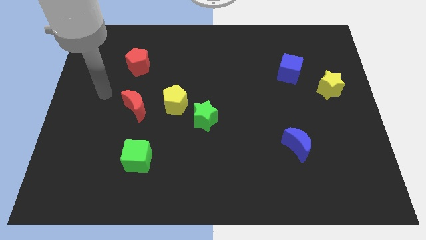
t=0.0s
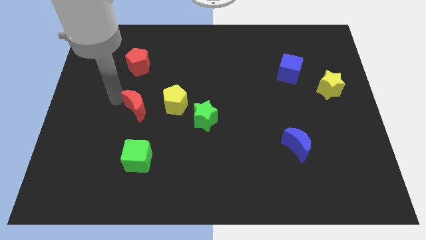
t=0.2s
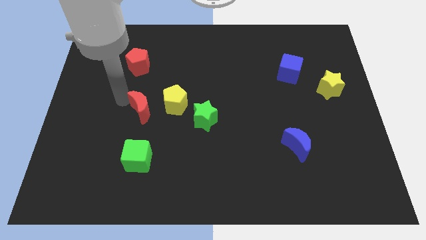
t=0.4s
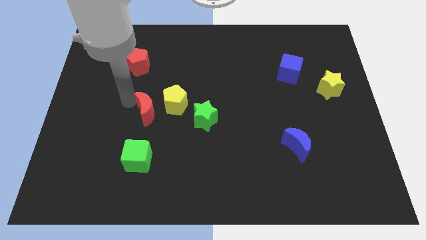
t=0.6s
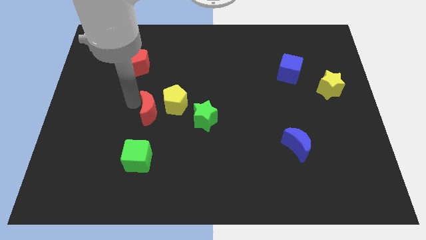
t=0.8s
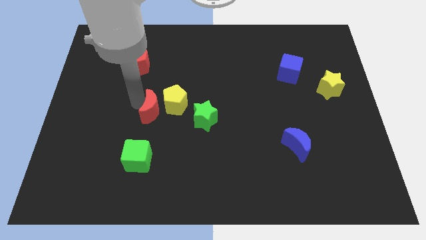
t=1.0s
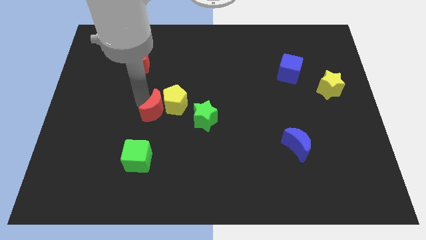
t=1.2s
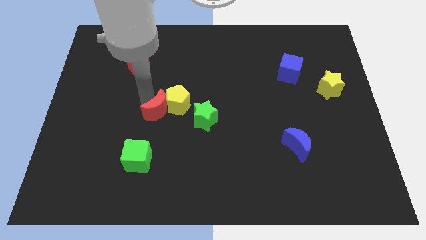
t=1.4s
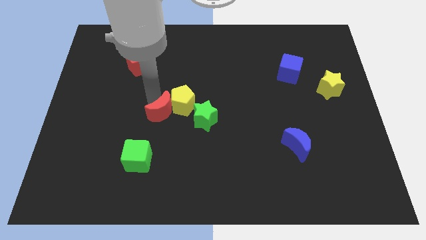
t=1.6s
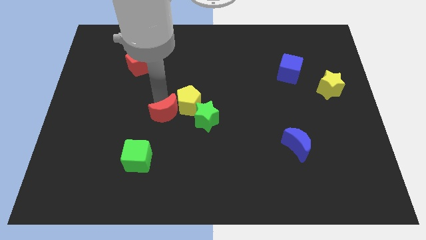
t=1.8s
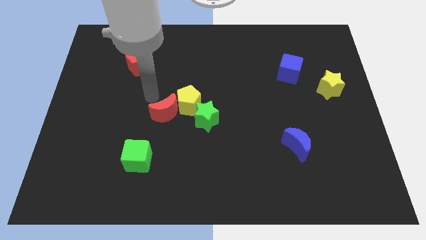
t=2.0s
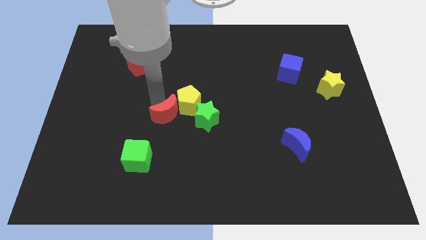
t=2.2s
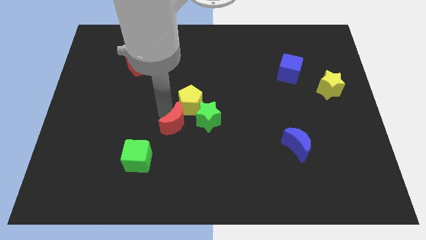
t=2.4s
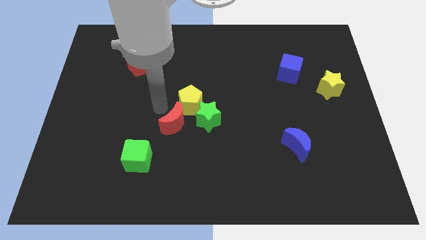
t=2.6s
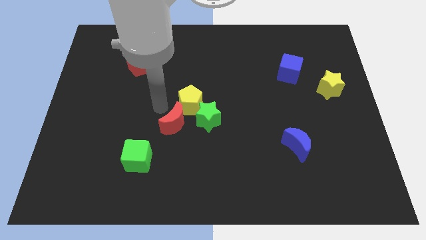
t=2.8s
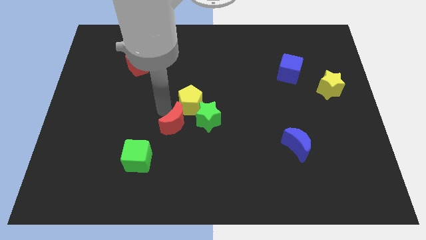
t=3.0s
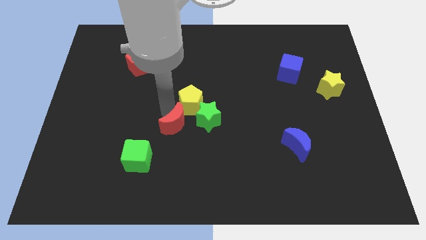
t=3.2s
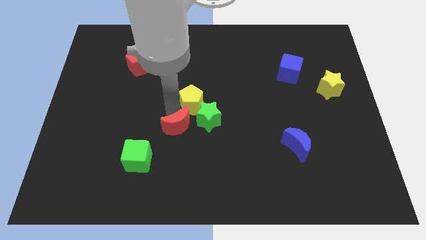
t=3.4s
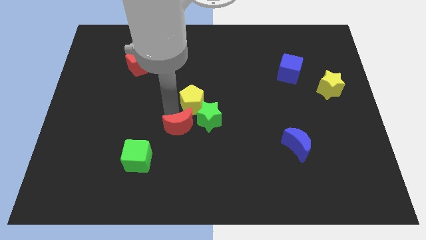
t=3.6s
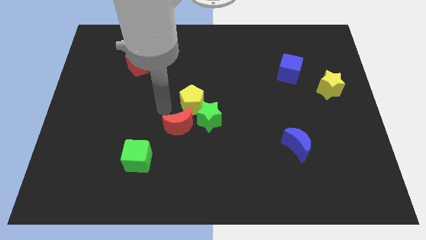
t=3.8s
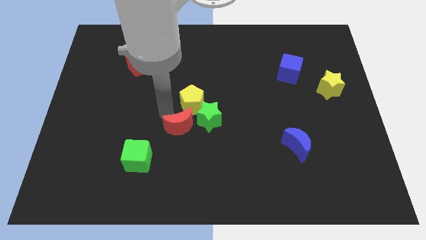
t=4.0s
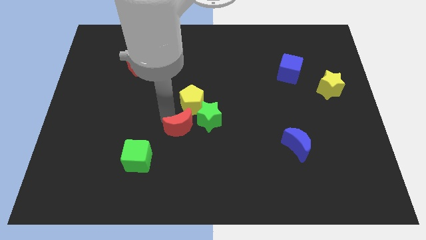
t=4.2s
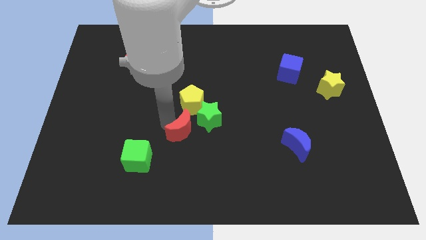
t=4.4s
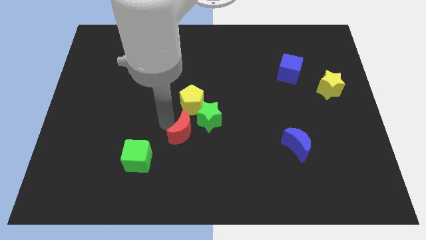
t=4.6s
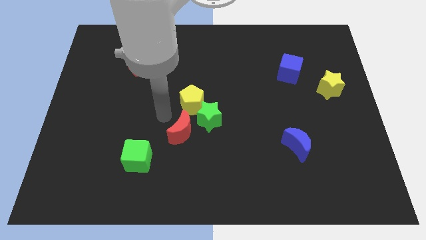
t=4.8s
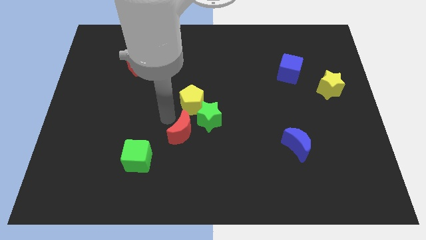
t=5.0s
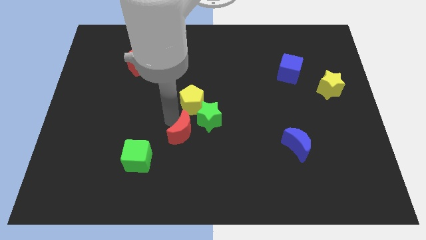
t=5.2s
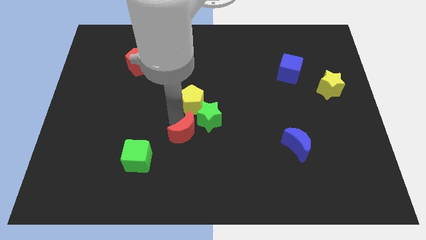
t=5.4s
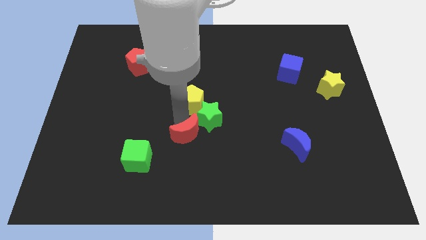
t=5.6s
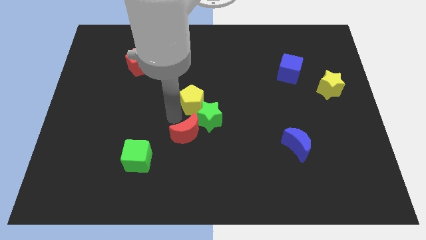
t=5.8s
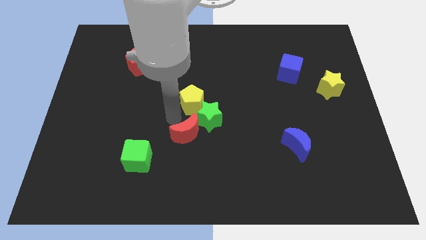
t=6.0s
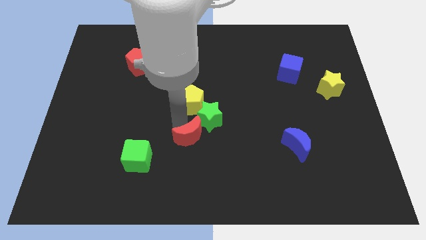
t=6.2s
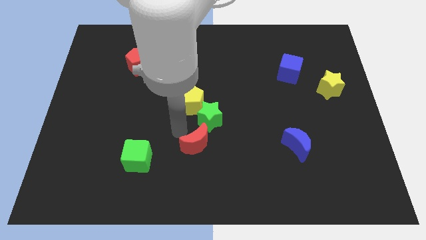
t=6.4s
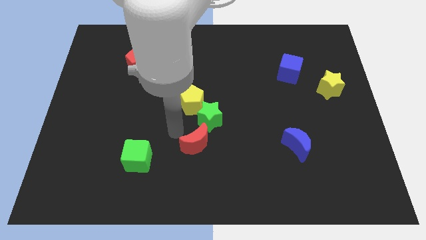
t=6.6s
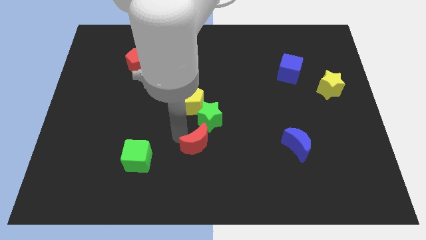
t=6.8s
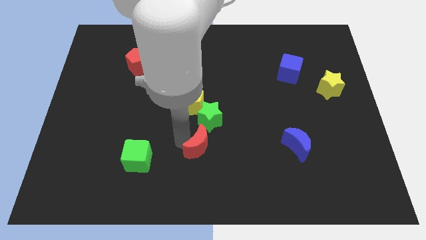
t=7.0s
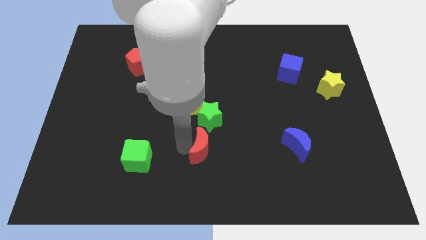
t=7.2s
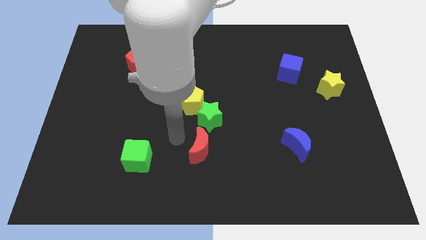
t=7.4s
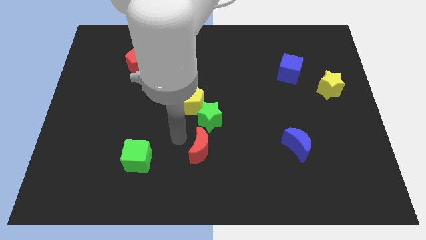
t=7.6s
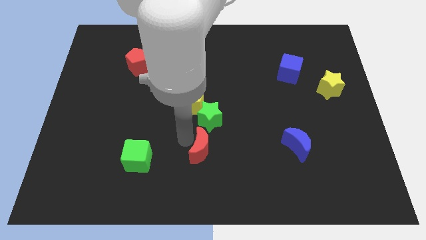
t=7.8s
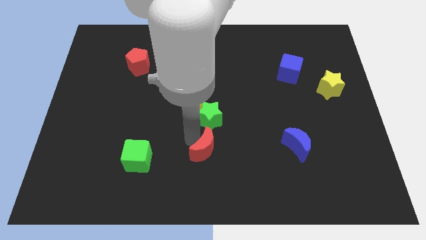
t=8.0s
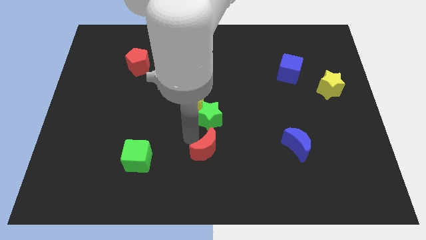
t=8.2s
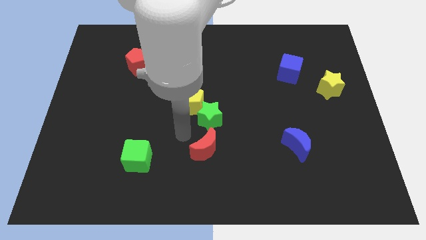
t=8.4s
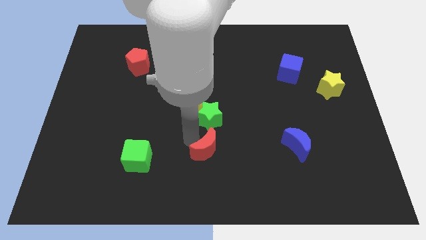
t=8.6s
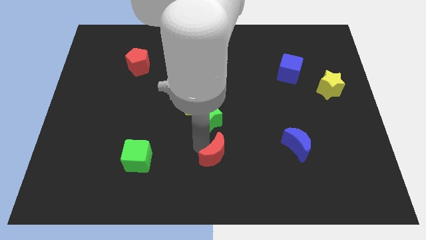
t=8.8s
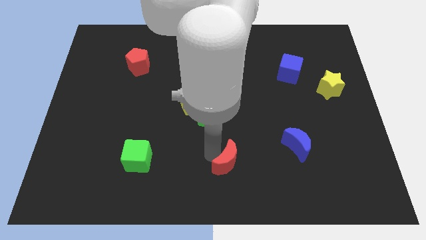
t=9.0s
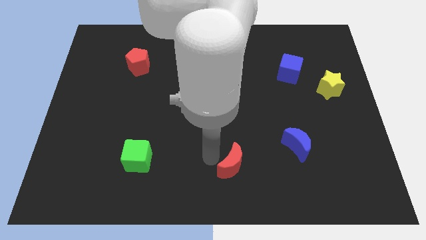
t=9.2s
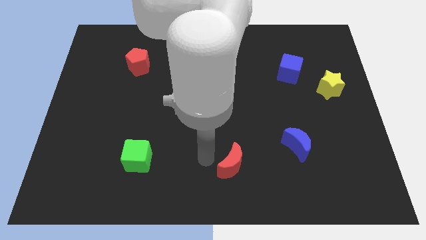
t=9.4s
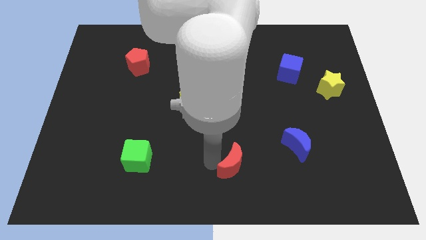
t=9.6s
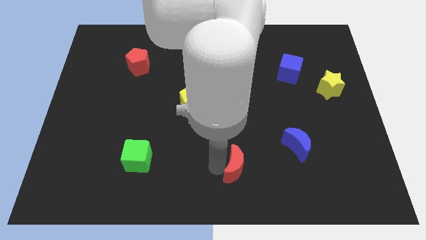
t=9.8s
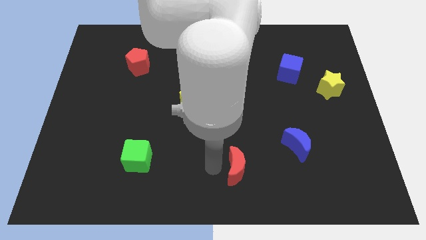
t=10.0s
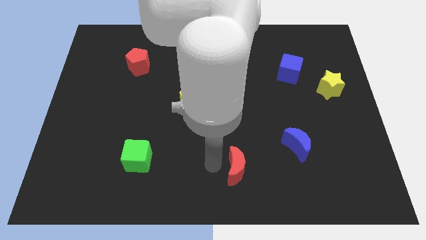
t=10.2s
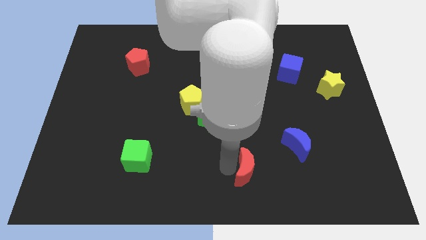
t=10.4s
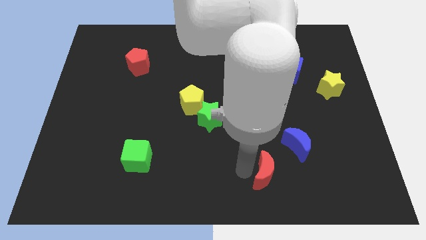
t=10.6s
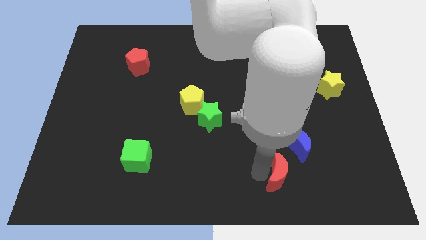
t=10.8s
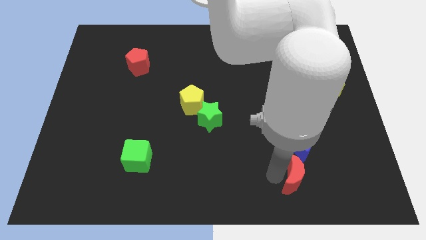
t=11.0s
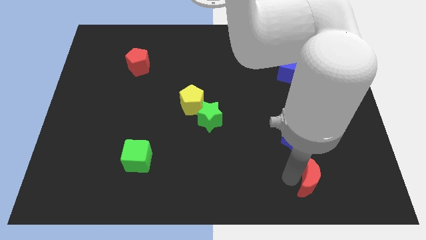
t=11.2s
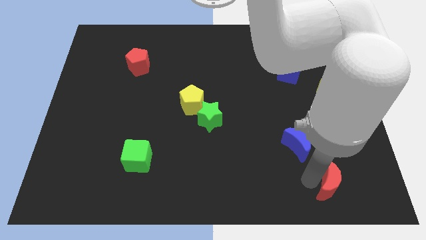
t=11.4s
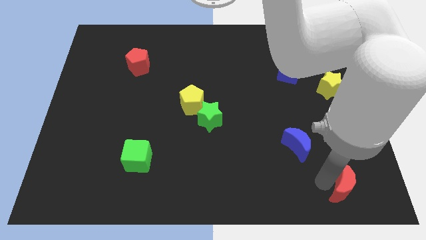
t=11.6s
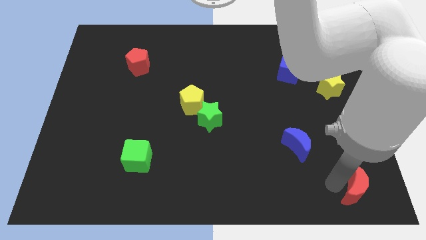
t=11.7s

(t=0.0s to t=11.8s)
slide the red moon to the bottom right corner

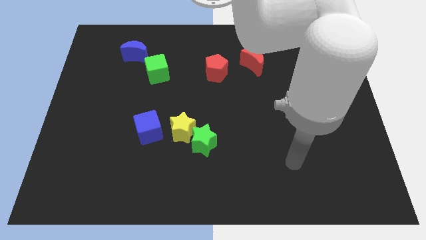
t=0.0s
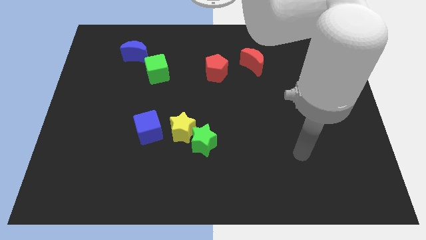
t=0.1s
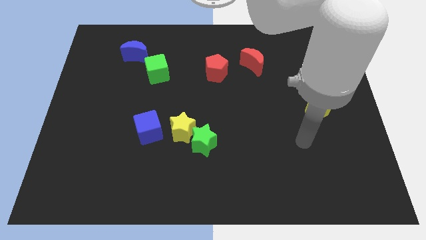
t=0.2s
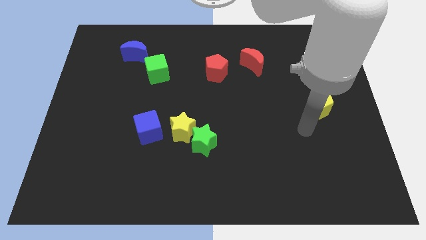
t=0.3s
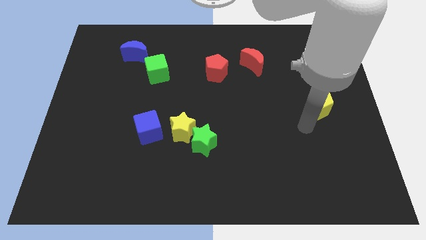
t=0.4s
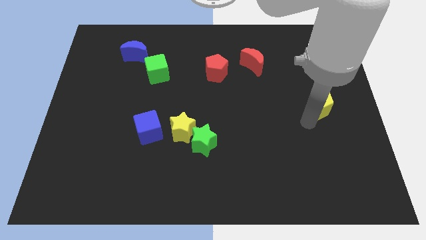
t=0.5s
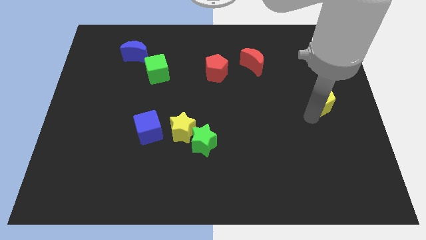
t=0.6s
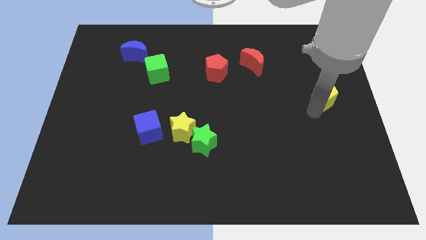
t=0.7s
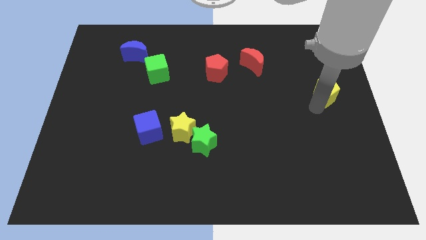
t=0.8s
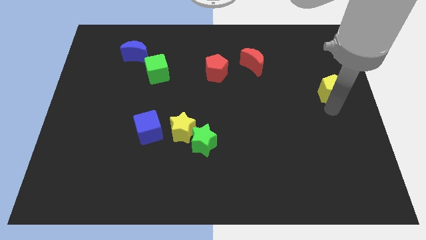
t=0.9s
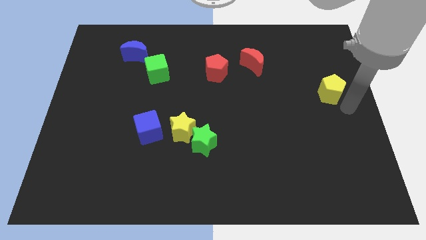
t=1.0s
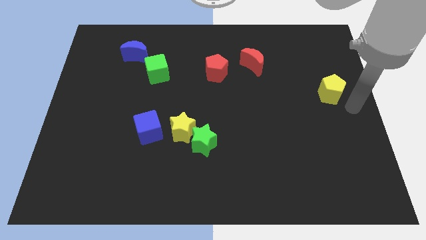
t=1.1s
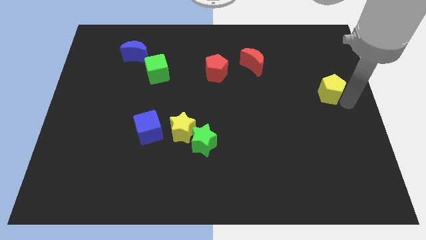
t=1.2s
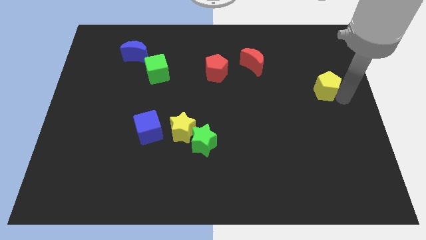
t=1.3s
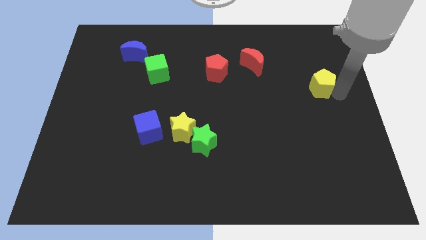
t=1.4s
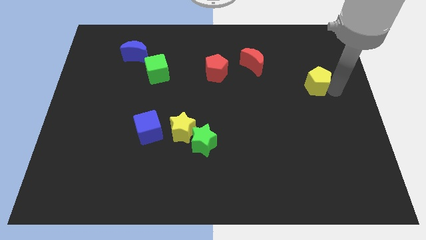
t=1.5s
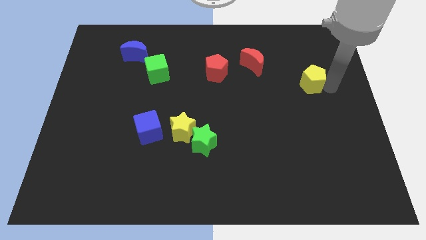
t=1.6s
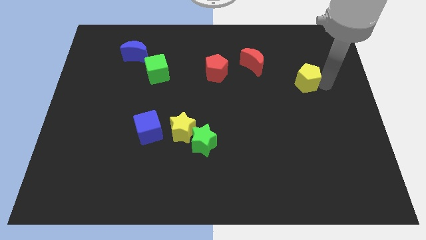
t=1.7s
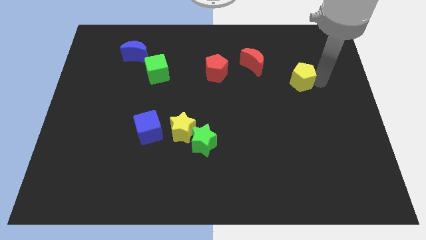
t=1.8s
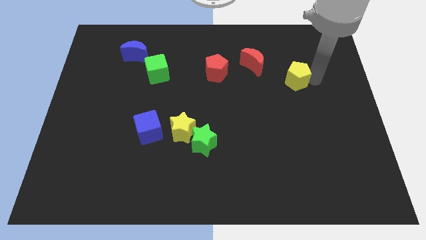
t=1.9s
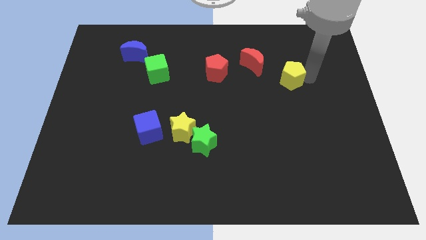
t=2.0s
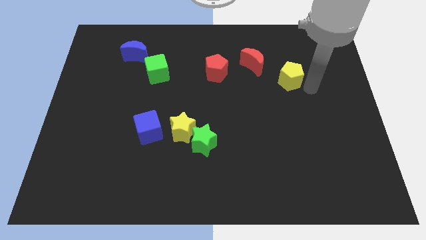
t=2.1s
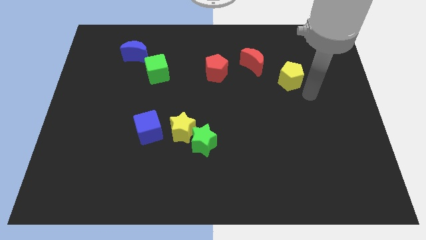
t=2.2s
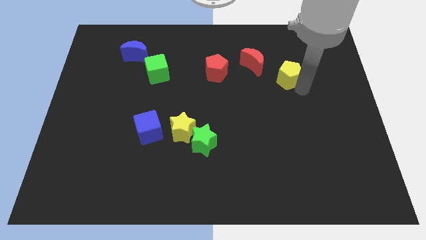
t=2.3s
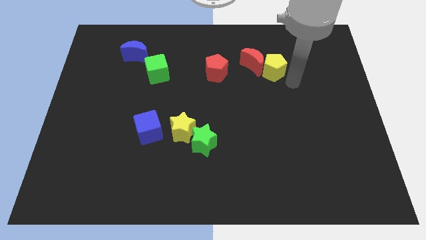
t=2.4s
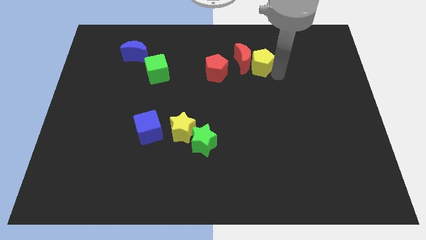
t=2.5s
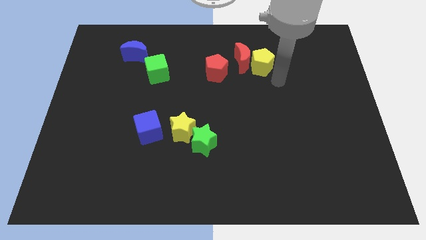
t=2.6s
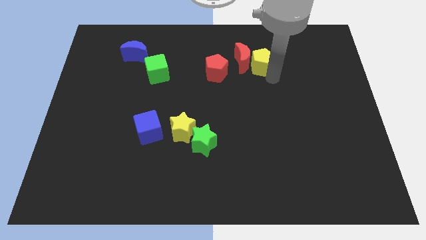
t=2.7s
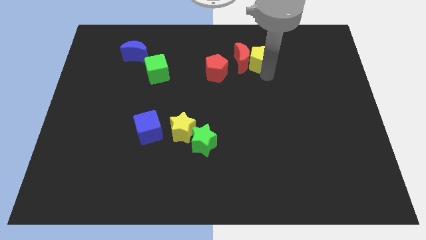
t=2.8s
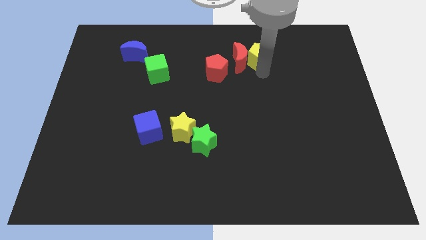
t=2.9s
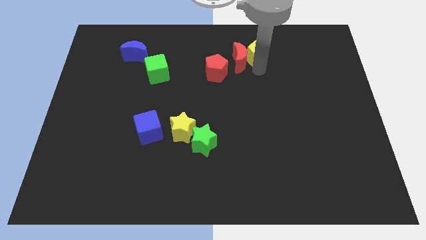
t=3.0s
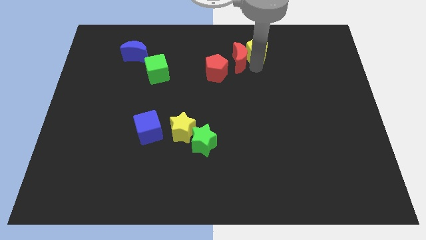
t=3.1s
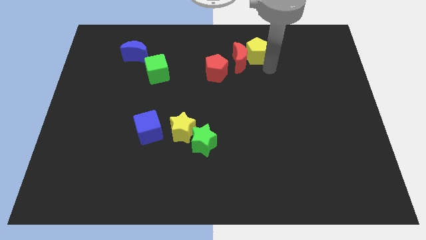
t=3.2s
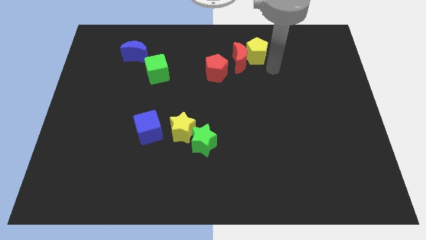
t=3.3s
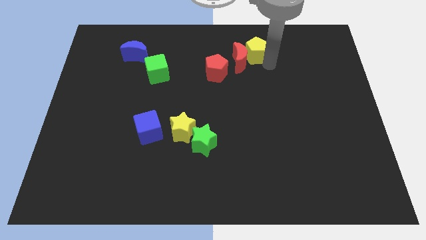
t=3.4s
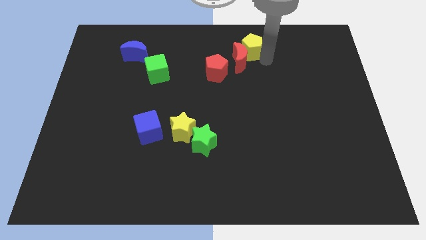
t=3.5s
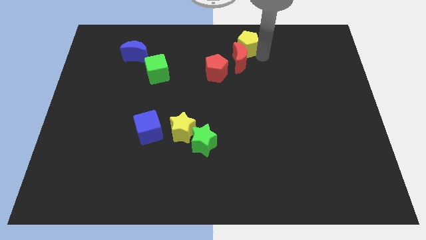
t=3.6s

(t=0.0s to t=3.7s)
move the yellow pentagon to the top side
